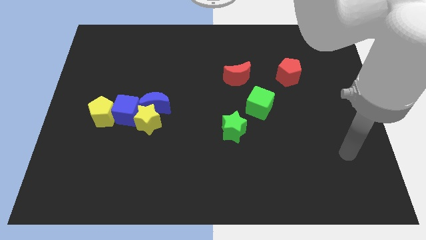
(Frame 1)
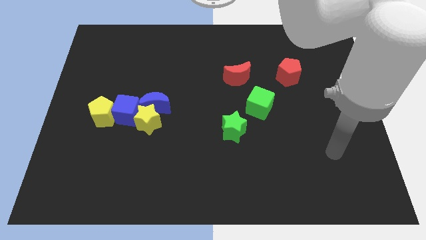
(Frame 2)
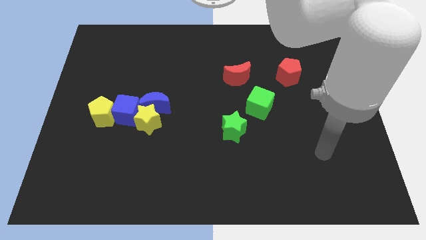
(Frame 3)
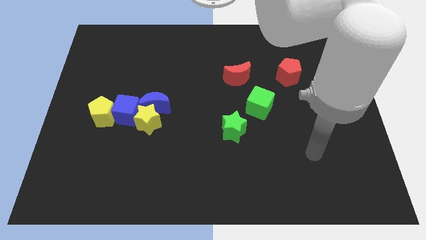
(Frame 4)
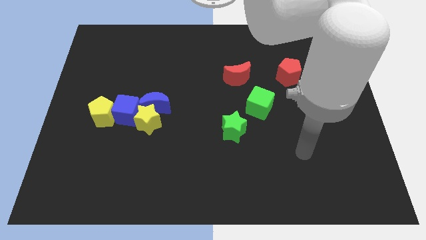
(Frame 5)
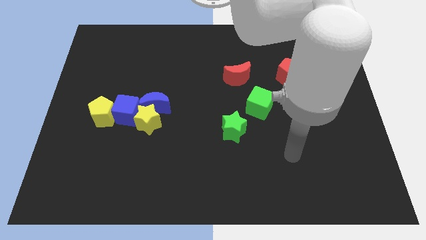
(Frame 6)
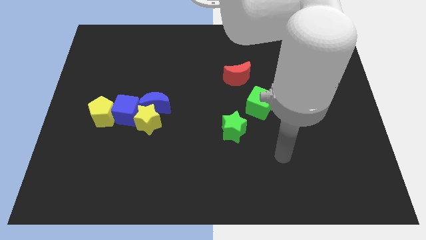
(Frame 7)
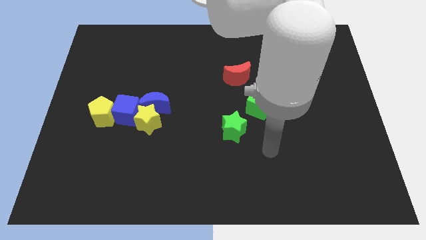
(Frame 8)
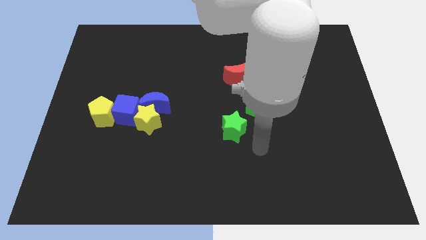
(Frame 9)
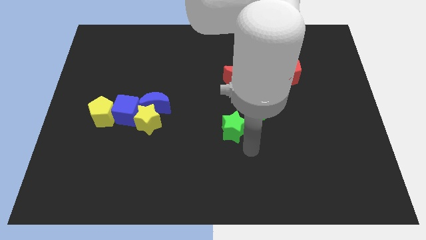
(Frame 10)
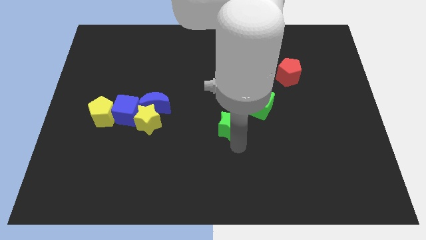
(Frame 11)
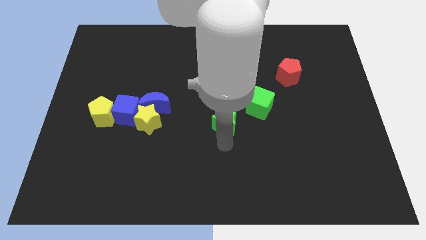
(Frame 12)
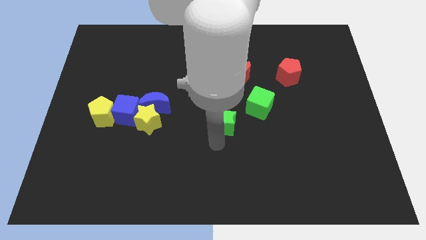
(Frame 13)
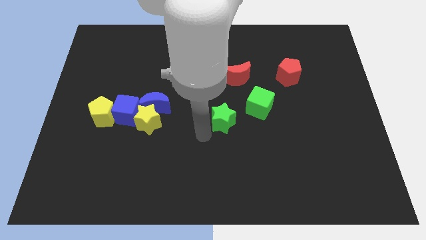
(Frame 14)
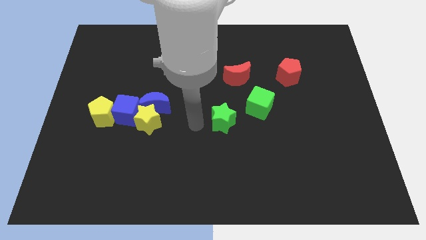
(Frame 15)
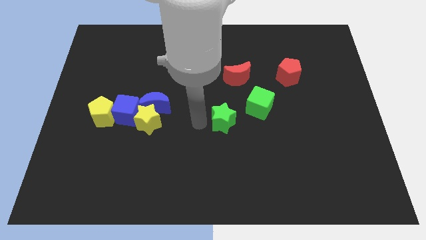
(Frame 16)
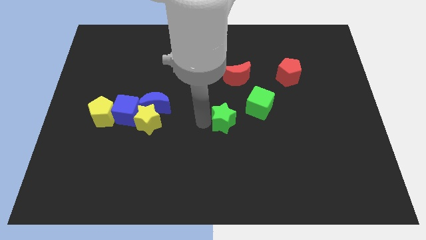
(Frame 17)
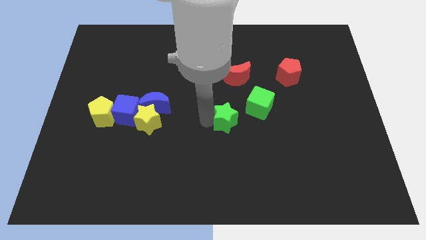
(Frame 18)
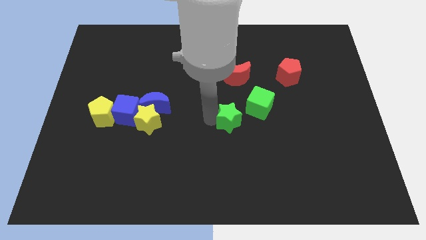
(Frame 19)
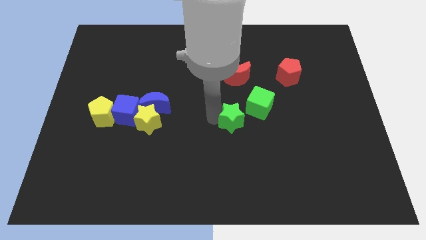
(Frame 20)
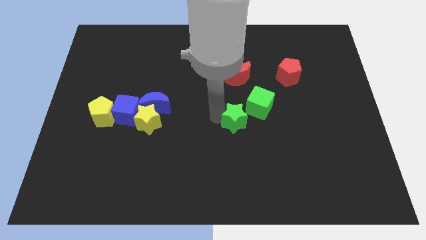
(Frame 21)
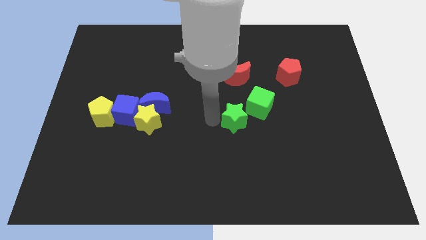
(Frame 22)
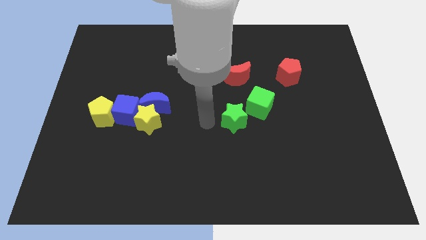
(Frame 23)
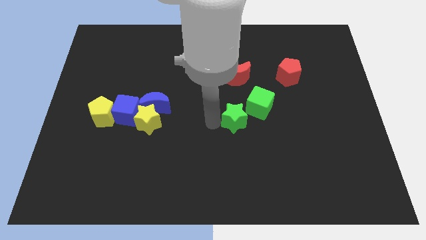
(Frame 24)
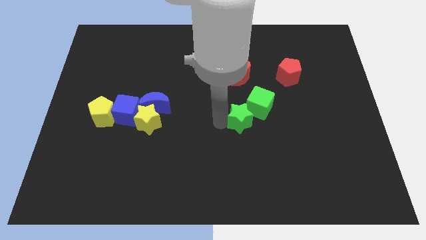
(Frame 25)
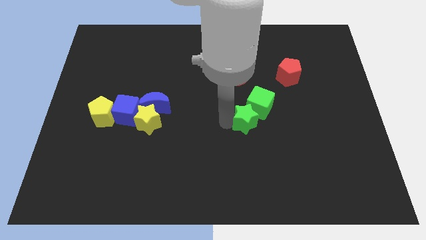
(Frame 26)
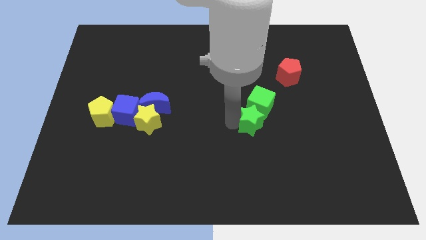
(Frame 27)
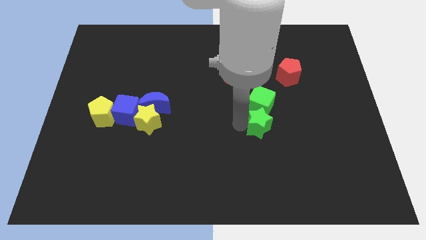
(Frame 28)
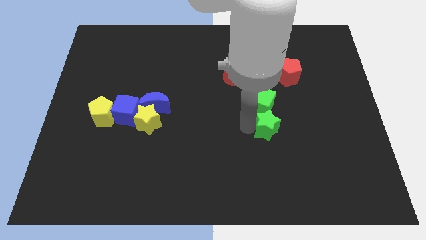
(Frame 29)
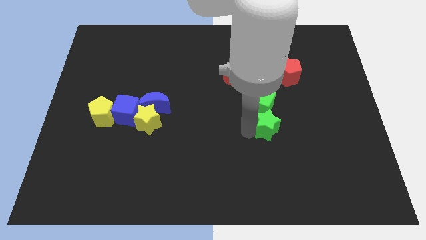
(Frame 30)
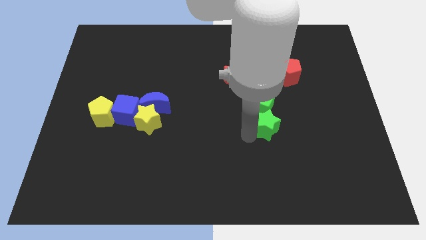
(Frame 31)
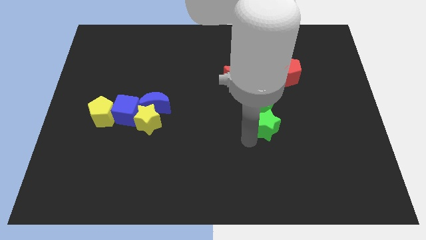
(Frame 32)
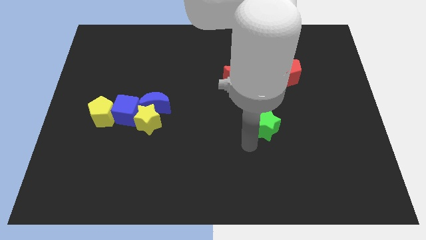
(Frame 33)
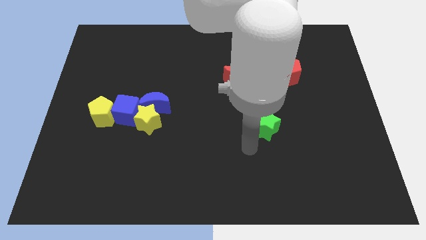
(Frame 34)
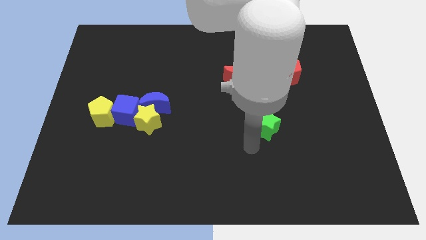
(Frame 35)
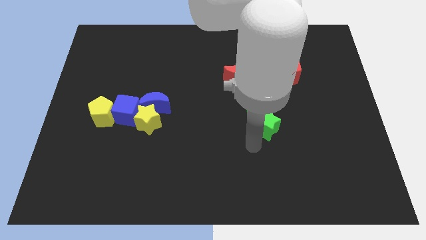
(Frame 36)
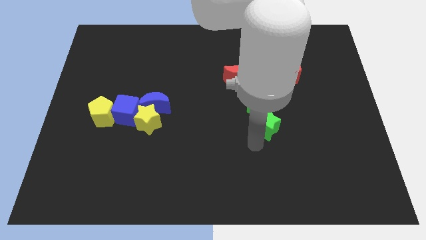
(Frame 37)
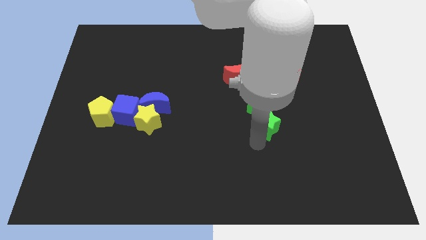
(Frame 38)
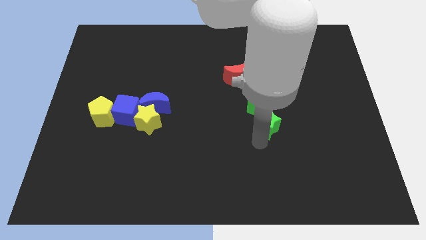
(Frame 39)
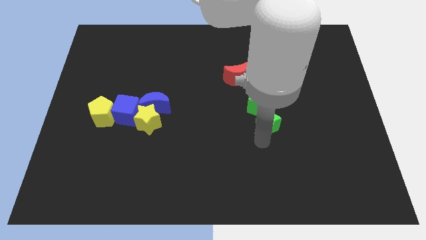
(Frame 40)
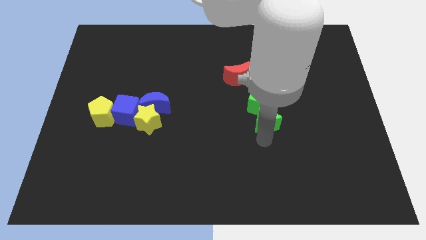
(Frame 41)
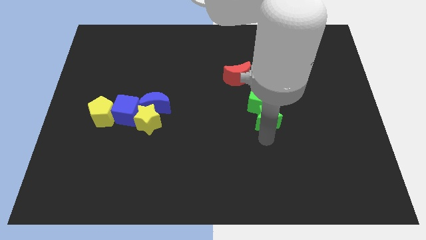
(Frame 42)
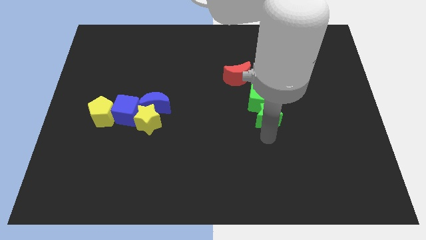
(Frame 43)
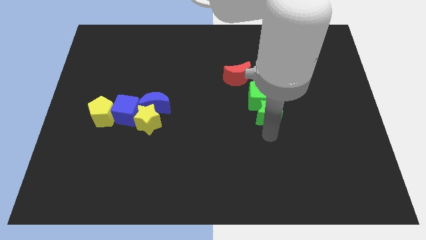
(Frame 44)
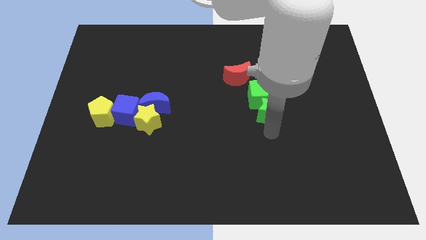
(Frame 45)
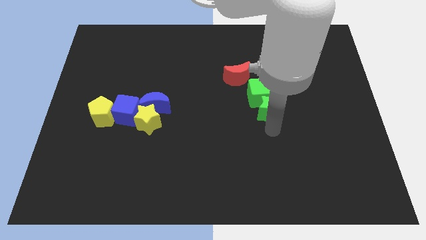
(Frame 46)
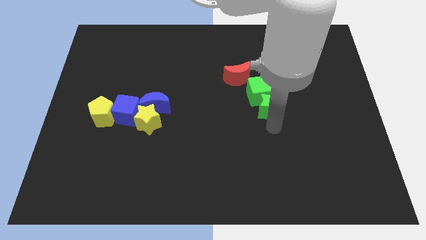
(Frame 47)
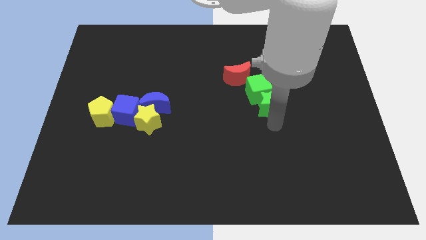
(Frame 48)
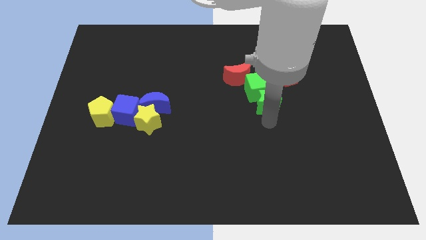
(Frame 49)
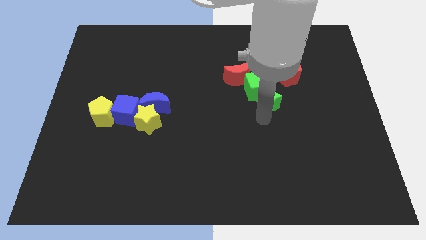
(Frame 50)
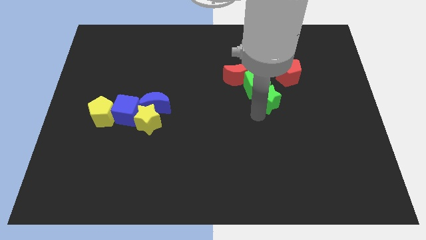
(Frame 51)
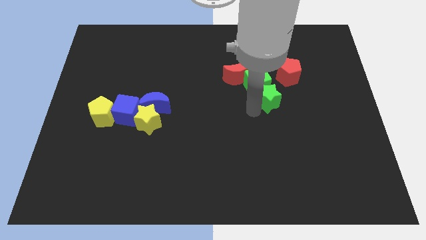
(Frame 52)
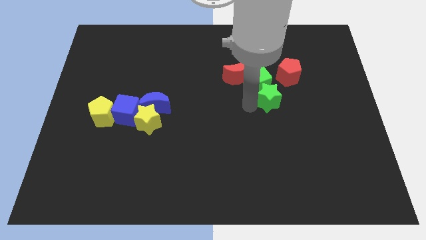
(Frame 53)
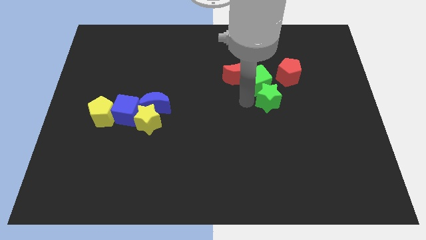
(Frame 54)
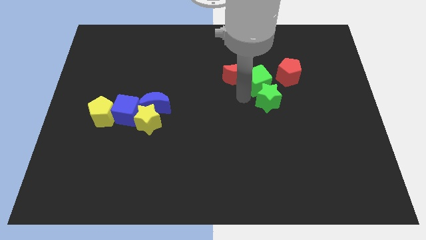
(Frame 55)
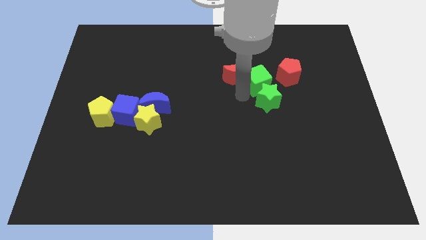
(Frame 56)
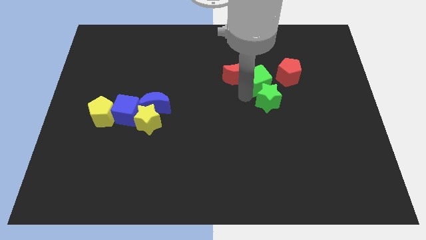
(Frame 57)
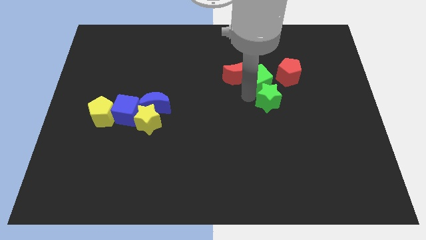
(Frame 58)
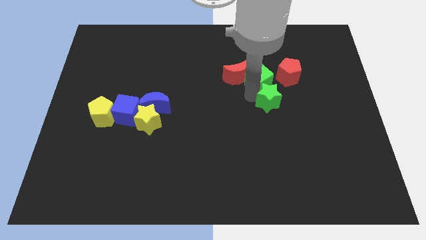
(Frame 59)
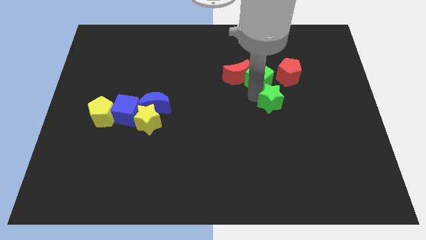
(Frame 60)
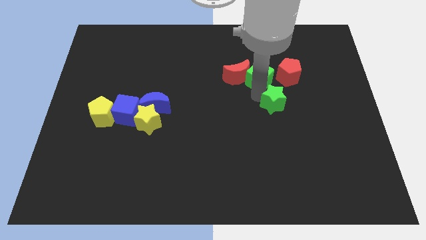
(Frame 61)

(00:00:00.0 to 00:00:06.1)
push the green star to the bottom side of the red pentagon
